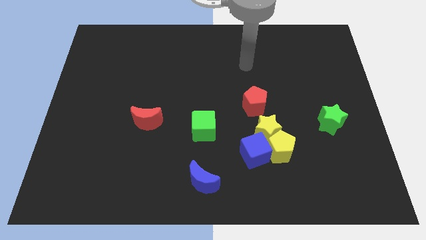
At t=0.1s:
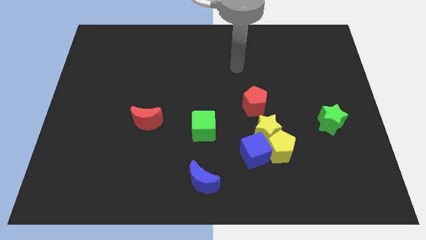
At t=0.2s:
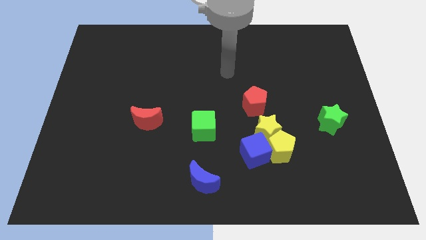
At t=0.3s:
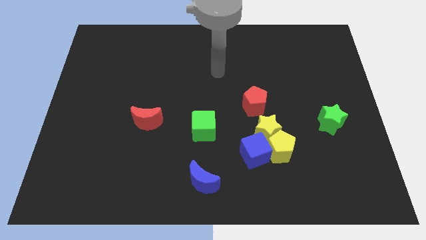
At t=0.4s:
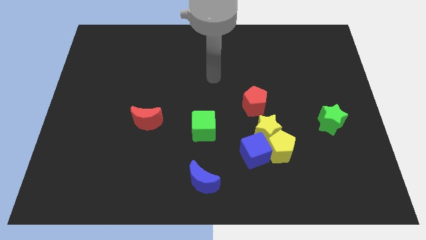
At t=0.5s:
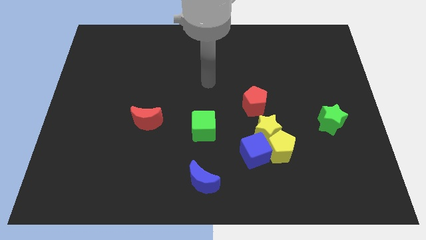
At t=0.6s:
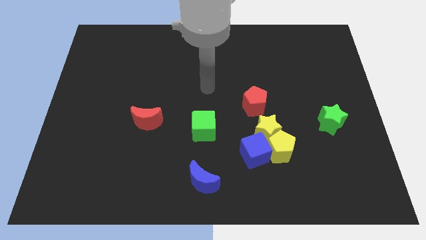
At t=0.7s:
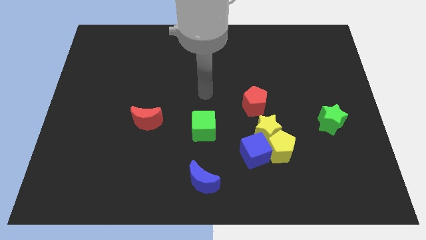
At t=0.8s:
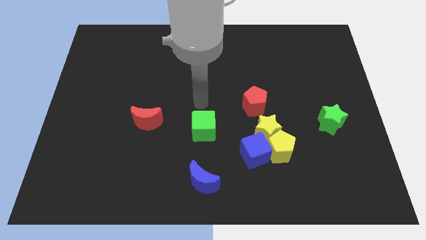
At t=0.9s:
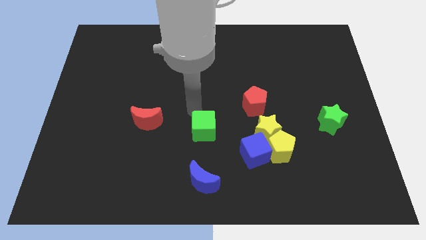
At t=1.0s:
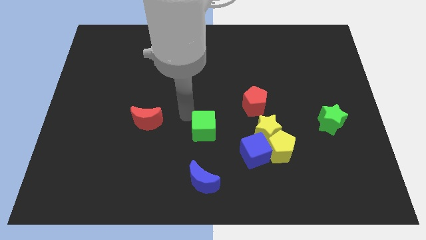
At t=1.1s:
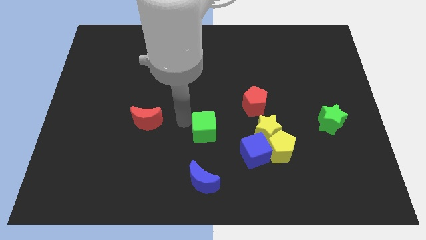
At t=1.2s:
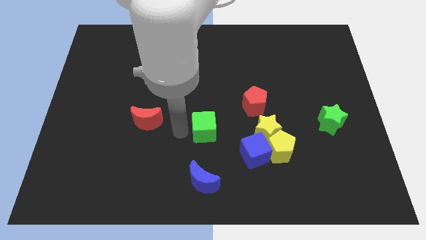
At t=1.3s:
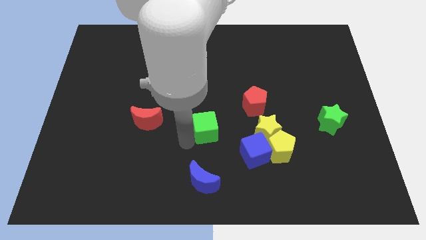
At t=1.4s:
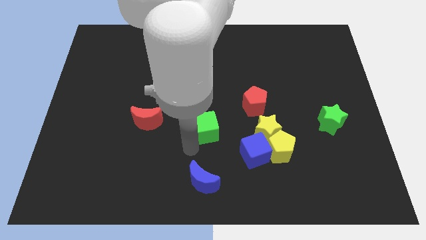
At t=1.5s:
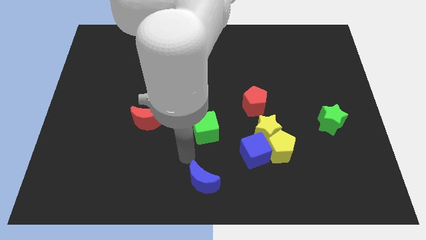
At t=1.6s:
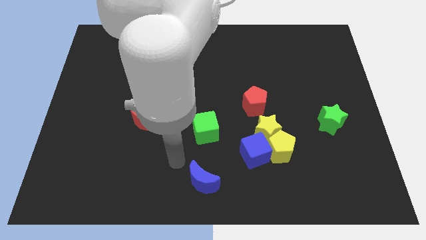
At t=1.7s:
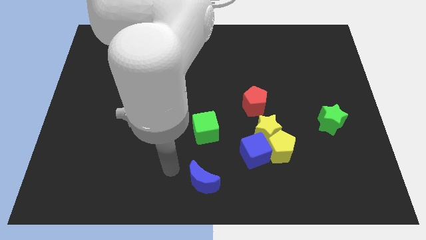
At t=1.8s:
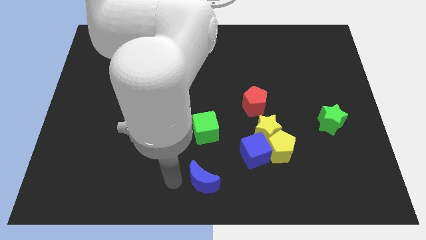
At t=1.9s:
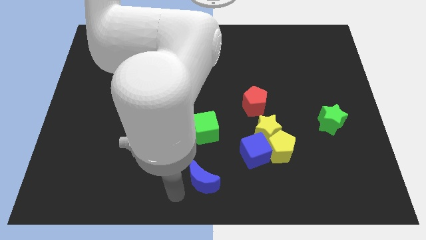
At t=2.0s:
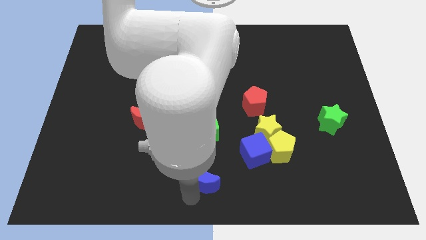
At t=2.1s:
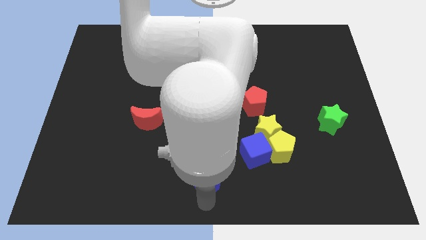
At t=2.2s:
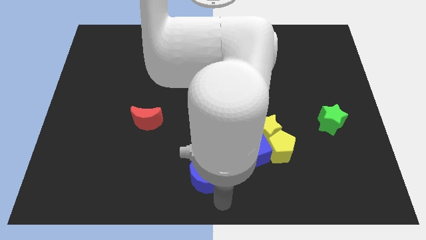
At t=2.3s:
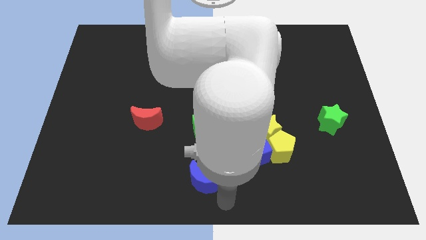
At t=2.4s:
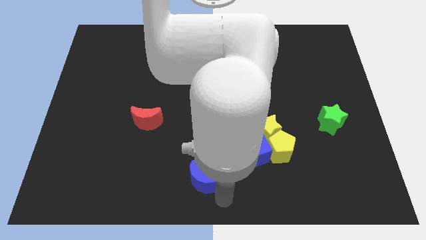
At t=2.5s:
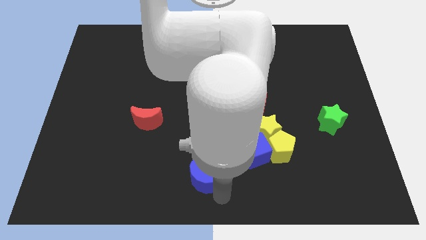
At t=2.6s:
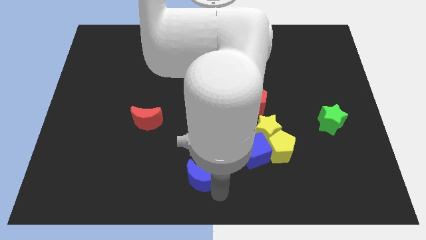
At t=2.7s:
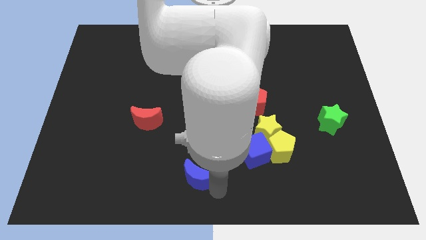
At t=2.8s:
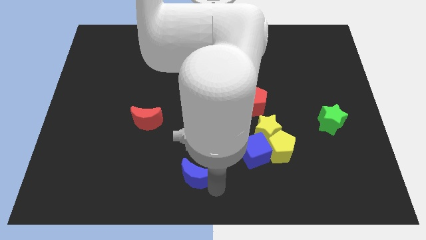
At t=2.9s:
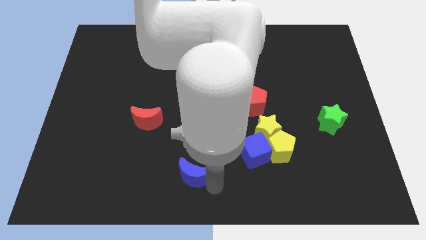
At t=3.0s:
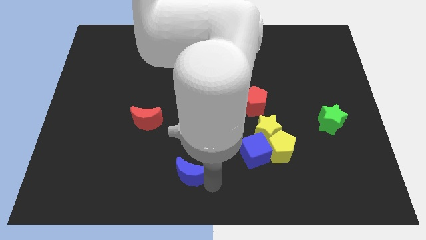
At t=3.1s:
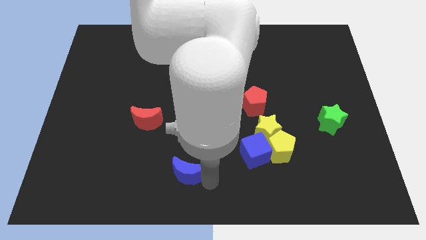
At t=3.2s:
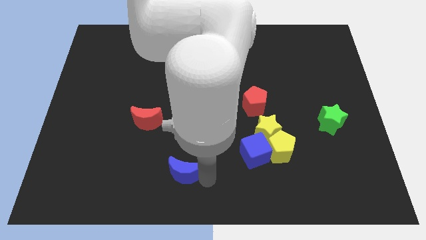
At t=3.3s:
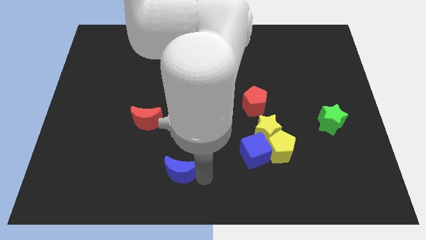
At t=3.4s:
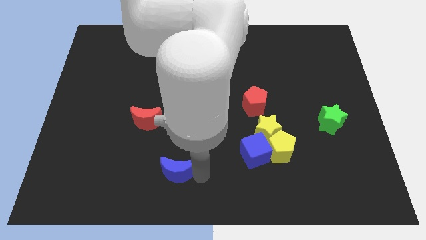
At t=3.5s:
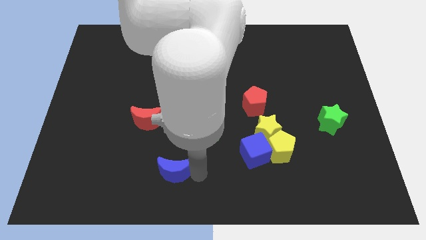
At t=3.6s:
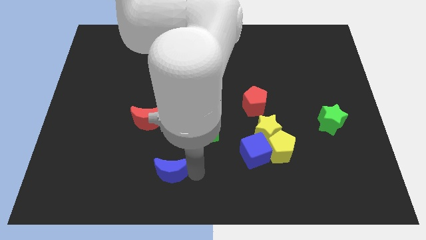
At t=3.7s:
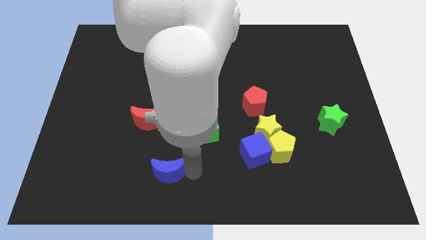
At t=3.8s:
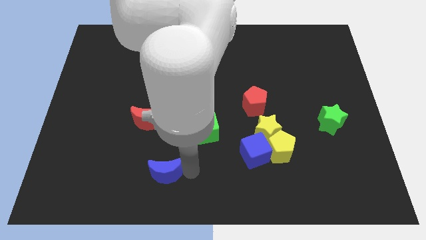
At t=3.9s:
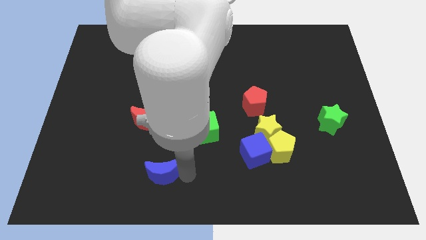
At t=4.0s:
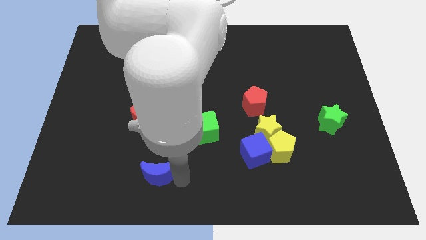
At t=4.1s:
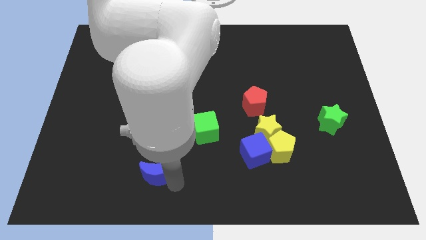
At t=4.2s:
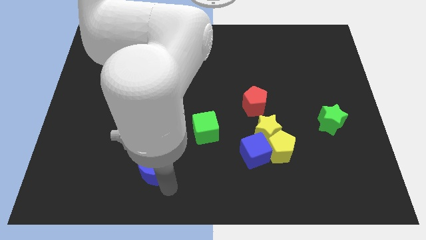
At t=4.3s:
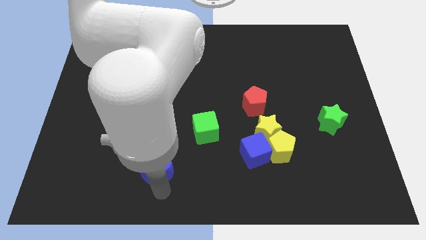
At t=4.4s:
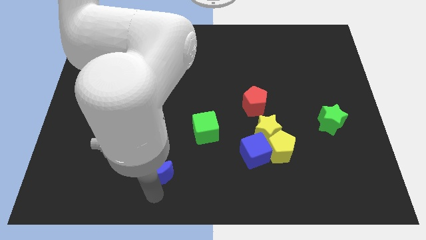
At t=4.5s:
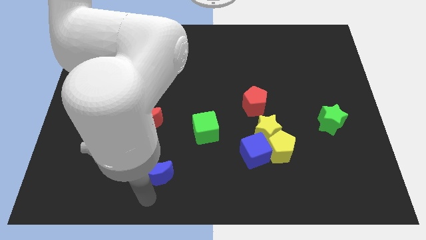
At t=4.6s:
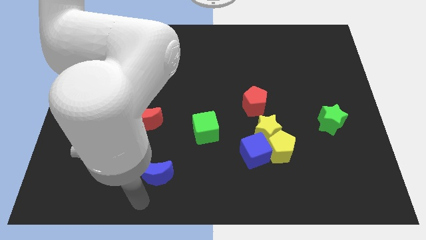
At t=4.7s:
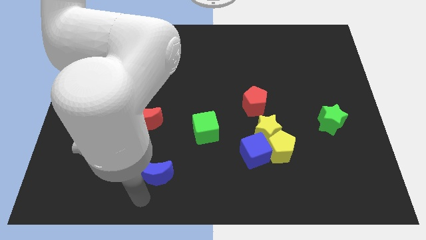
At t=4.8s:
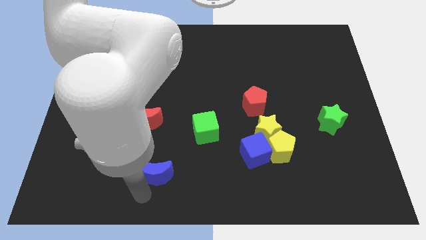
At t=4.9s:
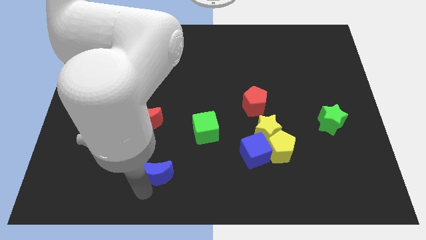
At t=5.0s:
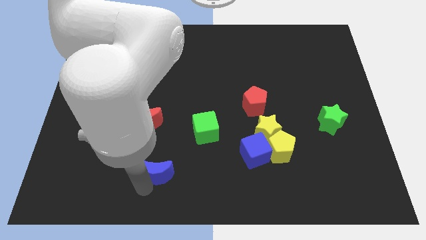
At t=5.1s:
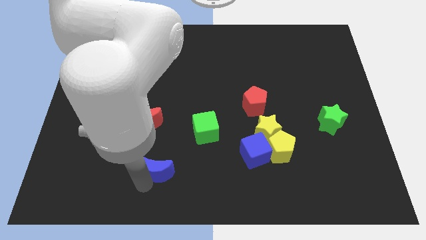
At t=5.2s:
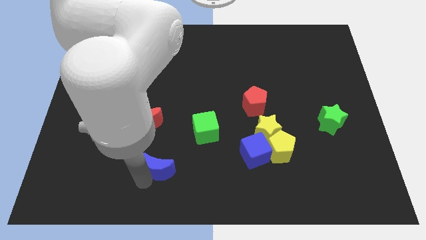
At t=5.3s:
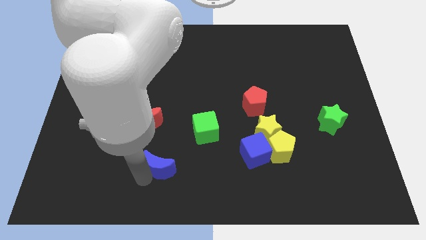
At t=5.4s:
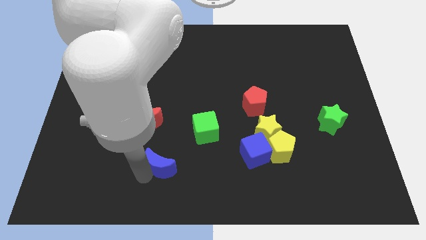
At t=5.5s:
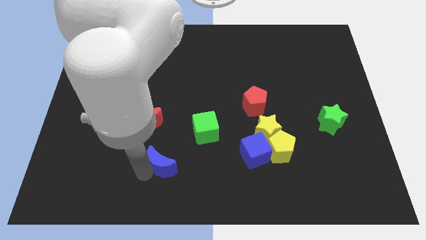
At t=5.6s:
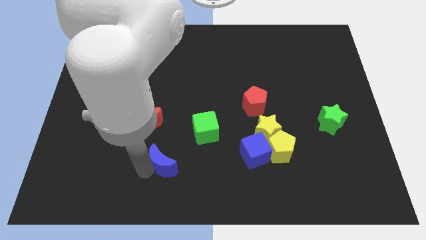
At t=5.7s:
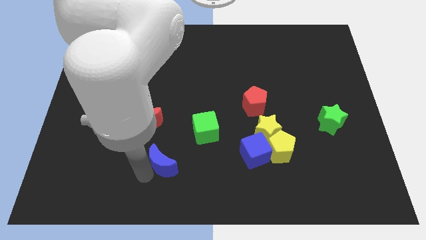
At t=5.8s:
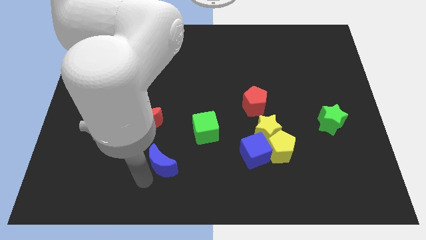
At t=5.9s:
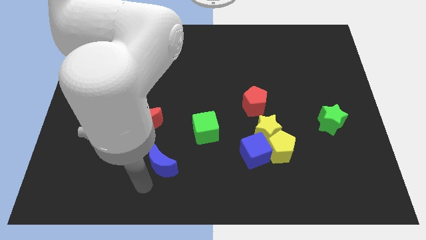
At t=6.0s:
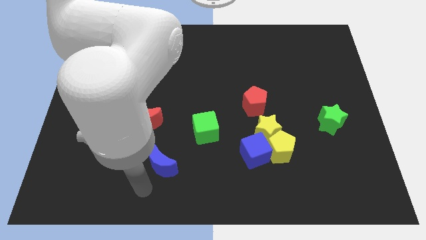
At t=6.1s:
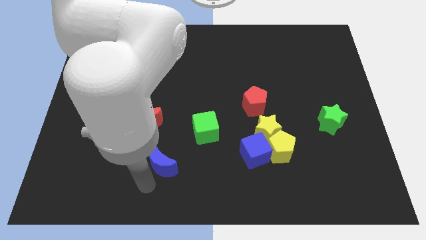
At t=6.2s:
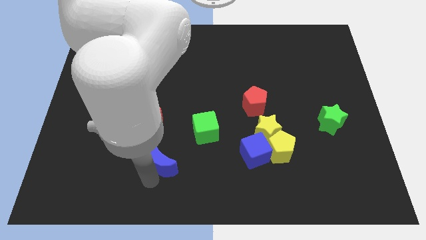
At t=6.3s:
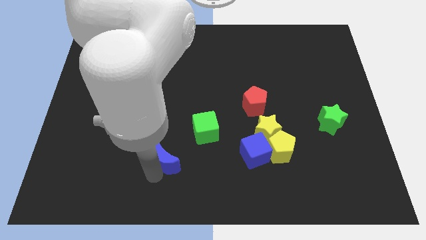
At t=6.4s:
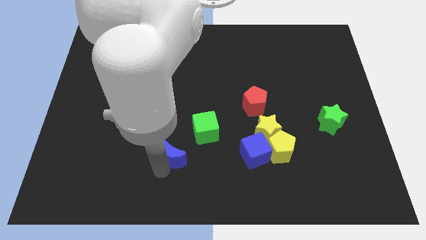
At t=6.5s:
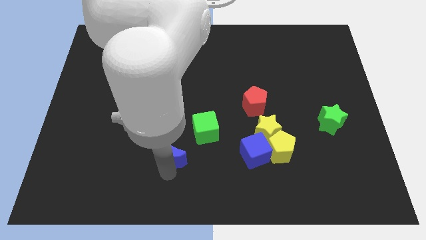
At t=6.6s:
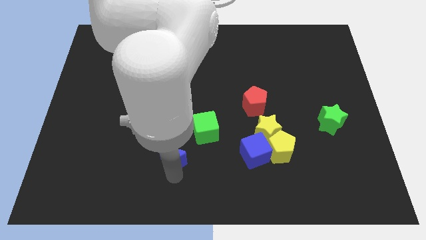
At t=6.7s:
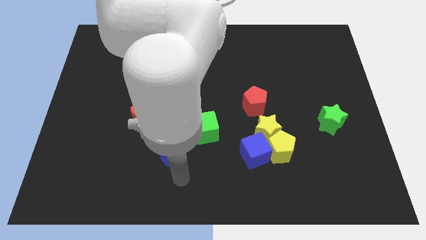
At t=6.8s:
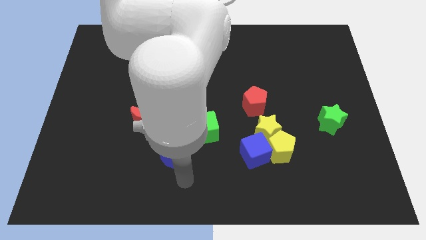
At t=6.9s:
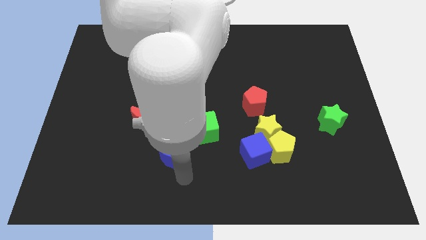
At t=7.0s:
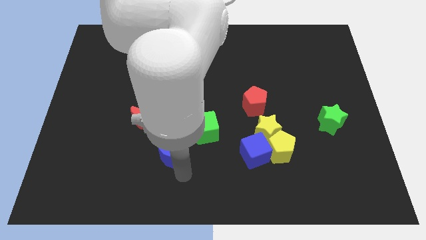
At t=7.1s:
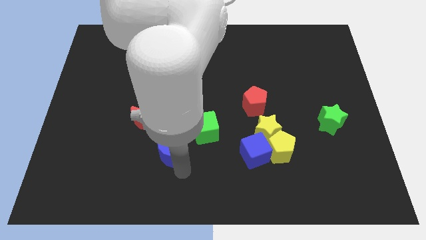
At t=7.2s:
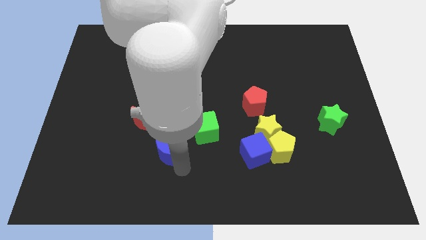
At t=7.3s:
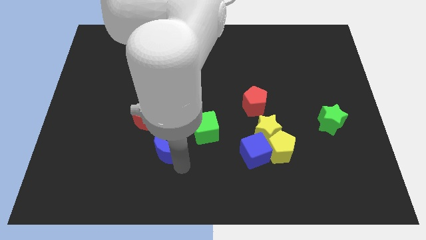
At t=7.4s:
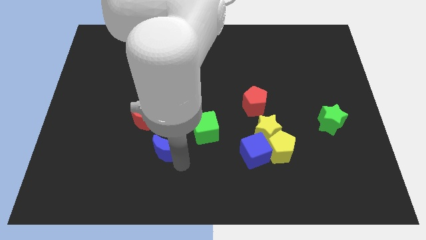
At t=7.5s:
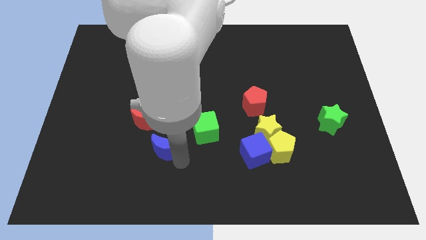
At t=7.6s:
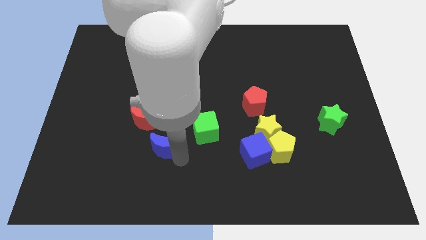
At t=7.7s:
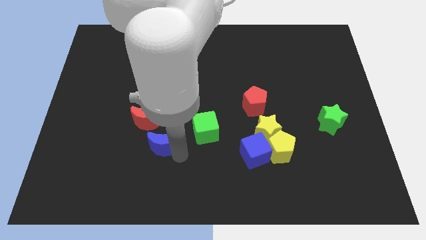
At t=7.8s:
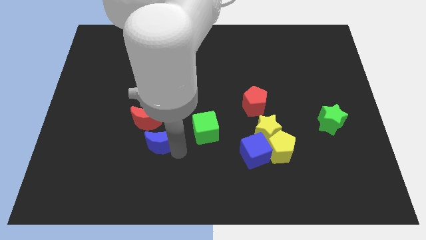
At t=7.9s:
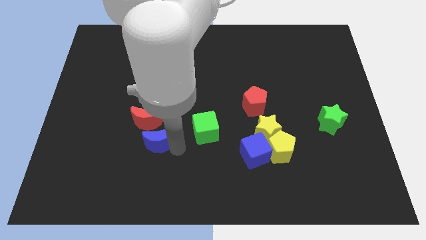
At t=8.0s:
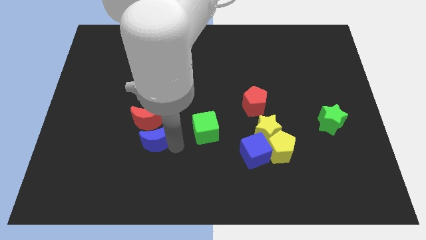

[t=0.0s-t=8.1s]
slide the blue moon to the red moon
